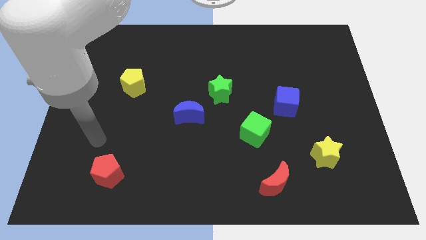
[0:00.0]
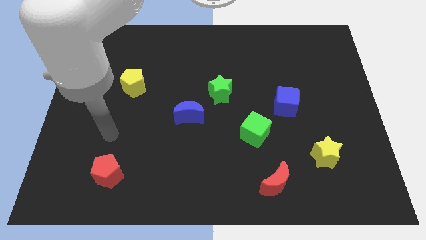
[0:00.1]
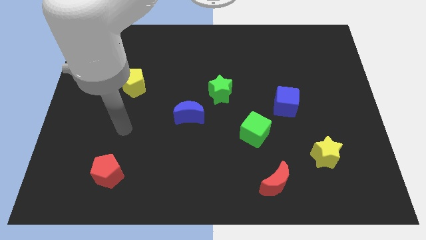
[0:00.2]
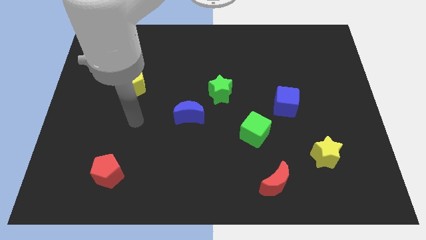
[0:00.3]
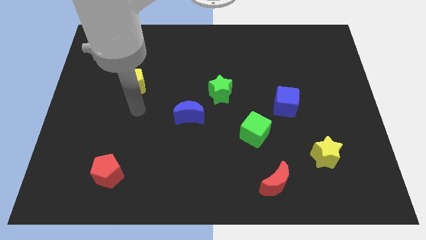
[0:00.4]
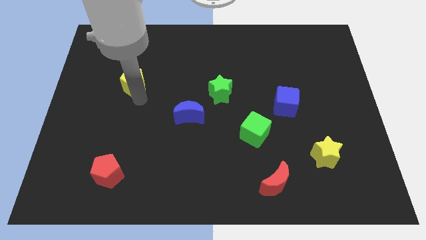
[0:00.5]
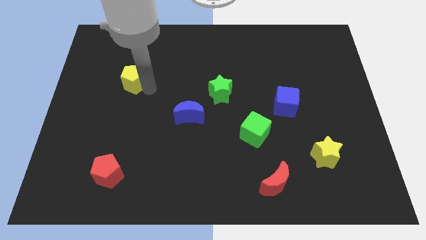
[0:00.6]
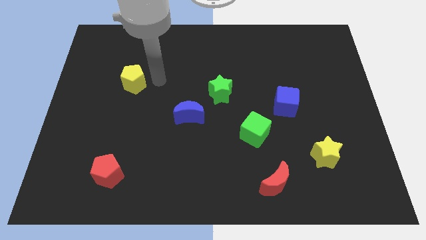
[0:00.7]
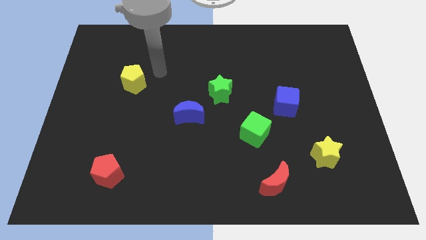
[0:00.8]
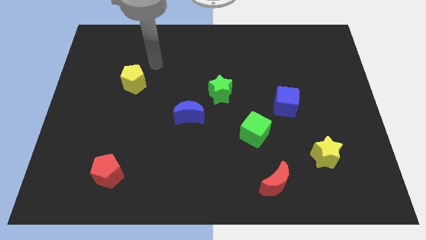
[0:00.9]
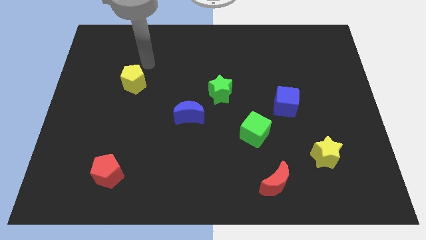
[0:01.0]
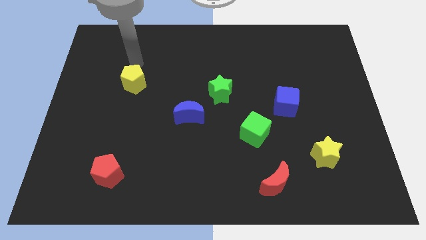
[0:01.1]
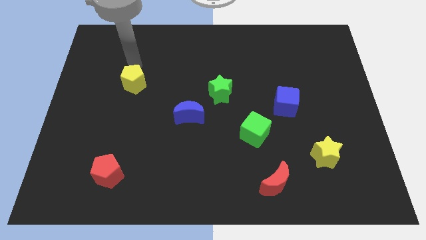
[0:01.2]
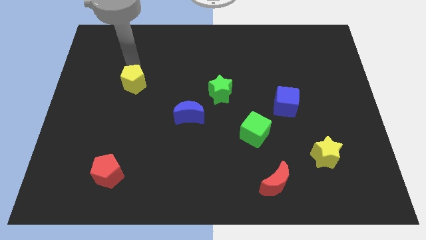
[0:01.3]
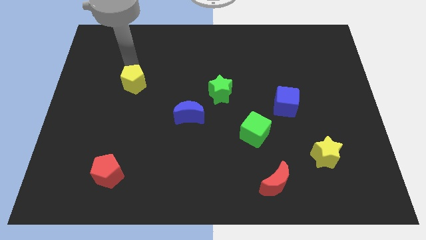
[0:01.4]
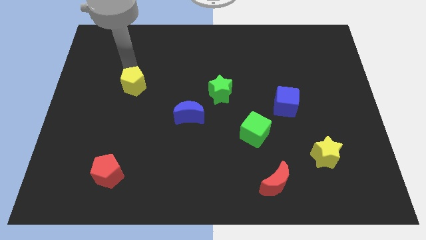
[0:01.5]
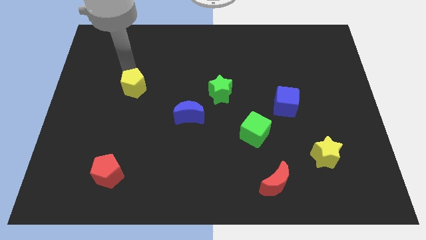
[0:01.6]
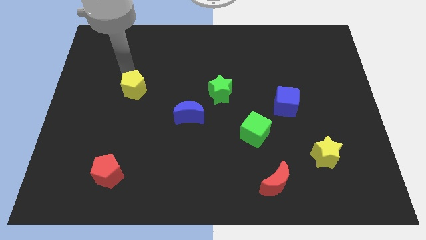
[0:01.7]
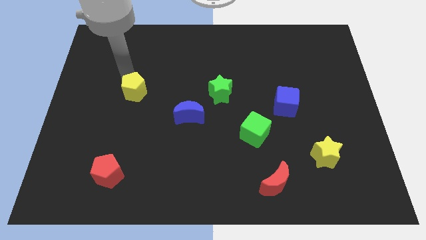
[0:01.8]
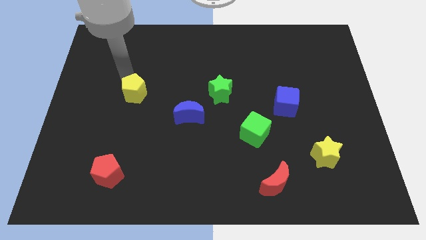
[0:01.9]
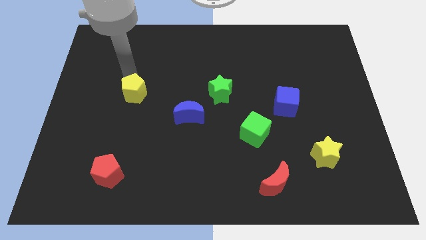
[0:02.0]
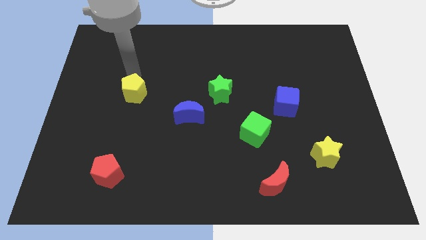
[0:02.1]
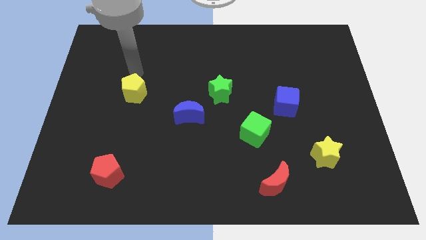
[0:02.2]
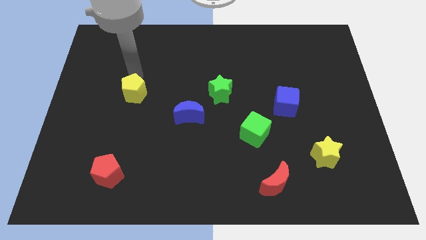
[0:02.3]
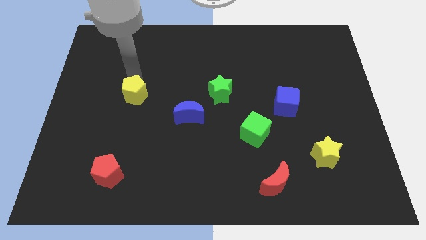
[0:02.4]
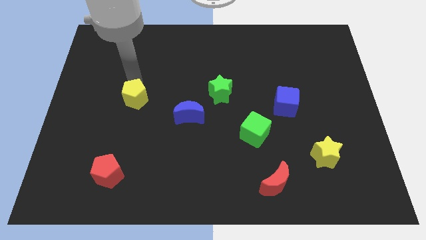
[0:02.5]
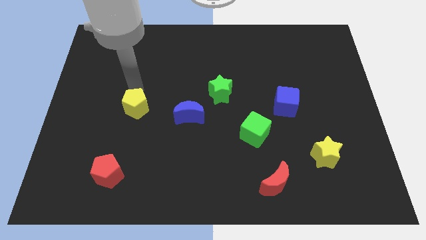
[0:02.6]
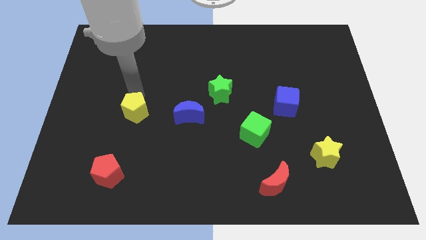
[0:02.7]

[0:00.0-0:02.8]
push the yellow pentagon slightly downwards

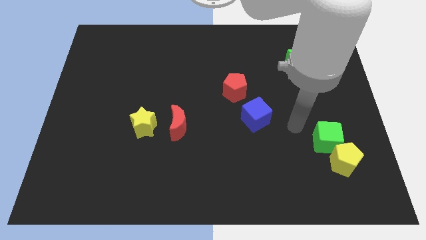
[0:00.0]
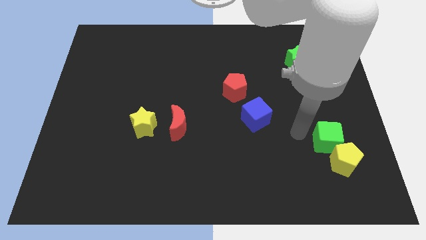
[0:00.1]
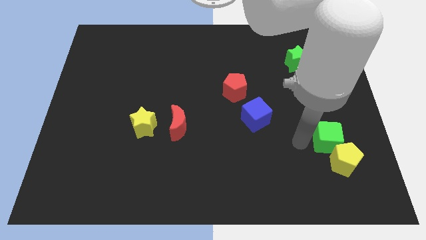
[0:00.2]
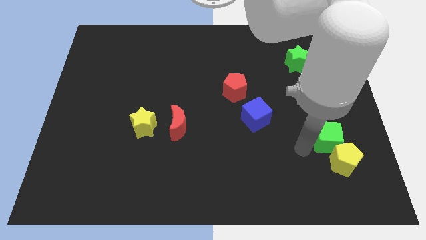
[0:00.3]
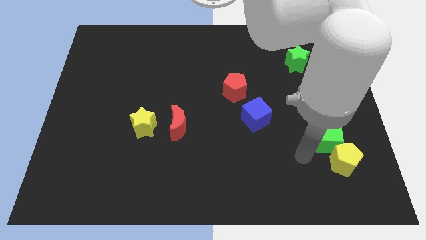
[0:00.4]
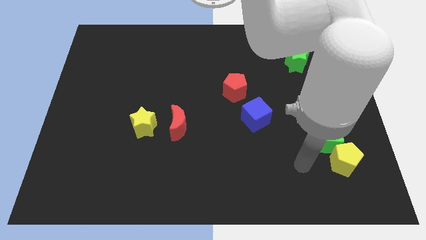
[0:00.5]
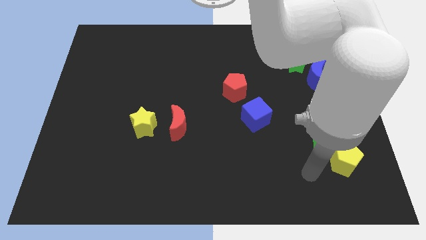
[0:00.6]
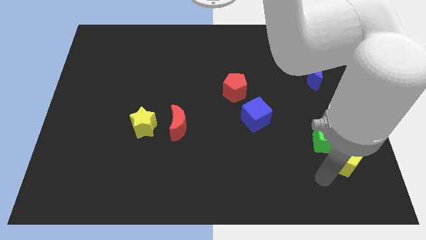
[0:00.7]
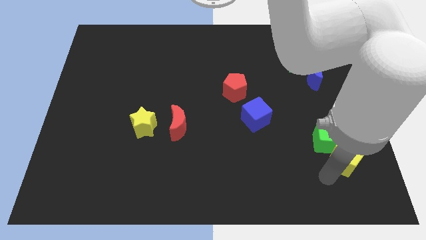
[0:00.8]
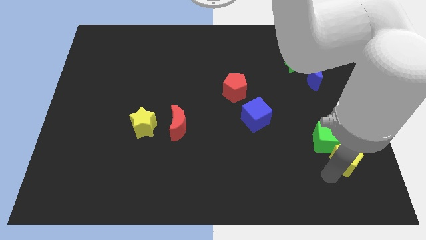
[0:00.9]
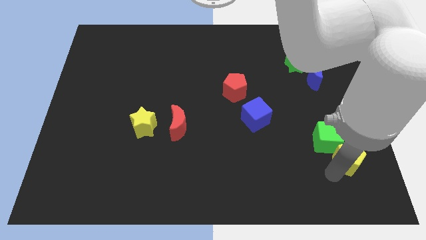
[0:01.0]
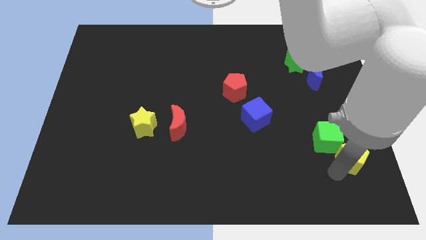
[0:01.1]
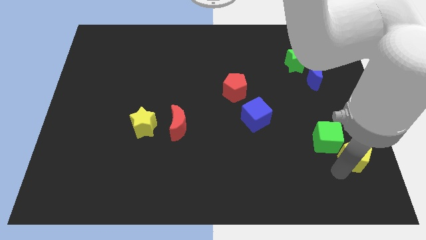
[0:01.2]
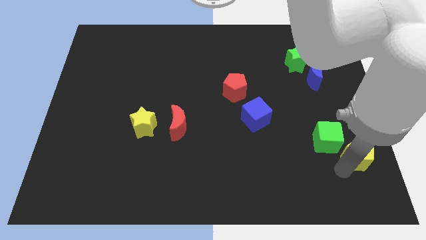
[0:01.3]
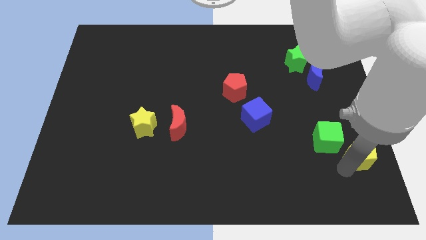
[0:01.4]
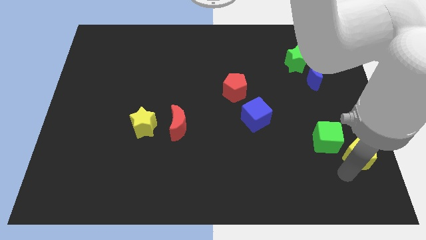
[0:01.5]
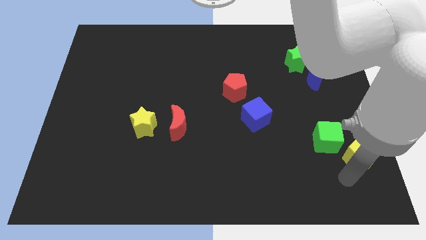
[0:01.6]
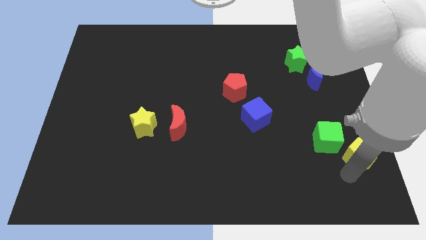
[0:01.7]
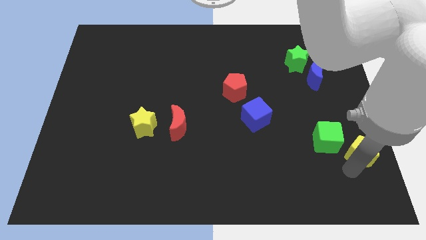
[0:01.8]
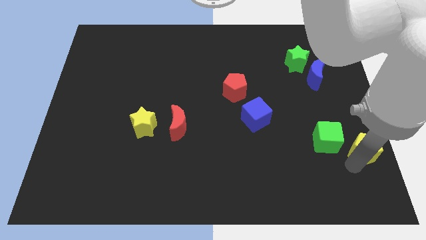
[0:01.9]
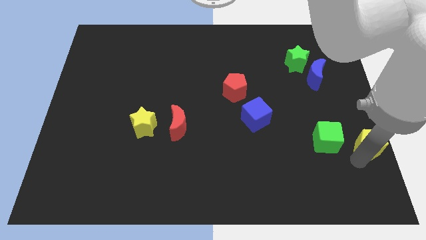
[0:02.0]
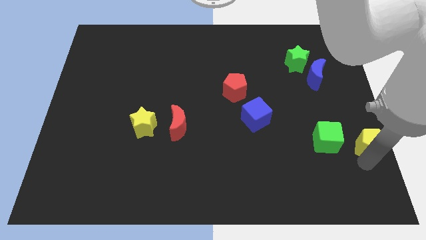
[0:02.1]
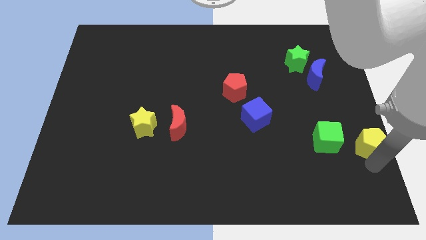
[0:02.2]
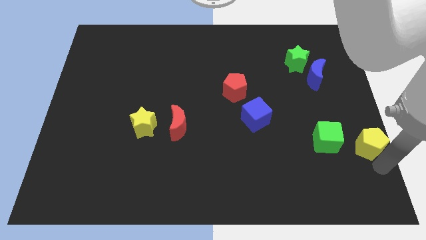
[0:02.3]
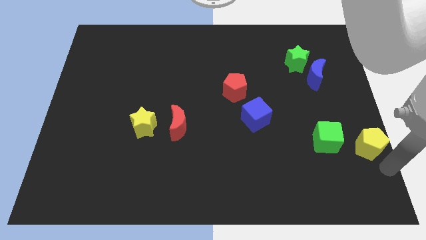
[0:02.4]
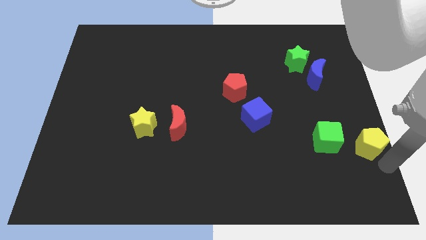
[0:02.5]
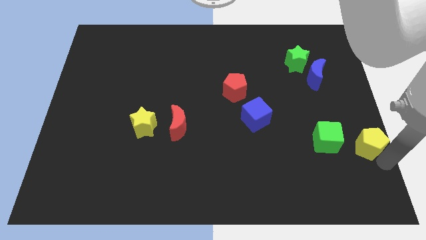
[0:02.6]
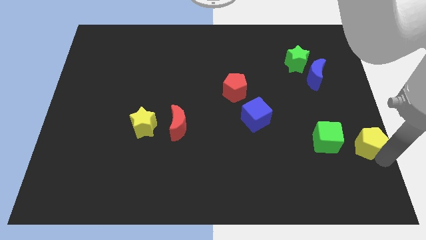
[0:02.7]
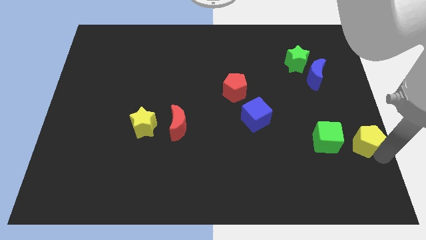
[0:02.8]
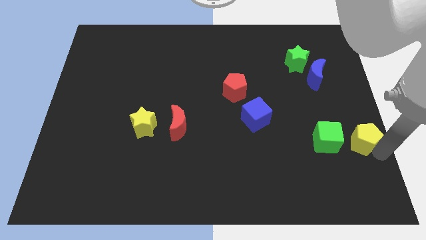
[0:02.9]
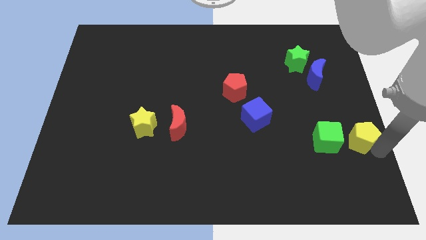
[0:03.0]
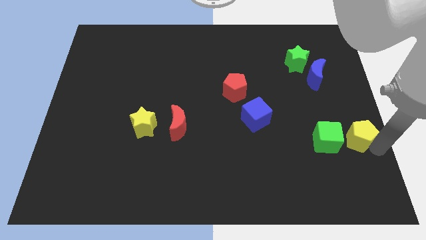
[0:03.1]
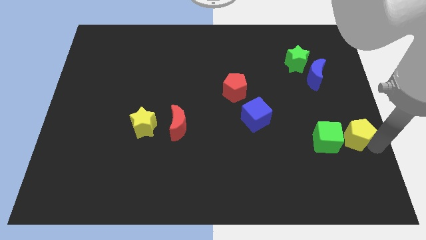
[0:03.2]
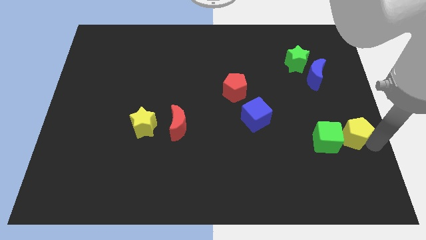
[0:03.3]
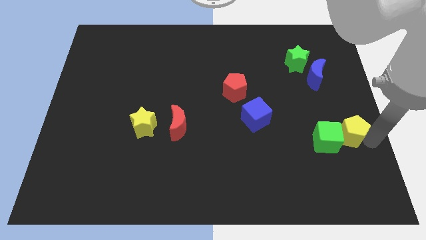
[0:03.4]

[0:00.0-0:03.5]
move the yellow pentagon upwards slightly

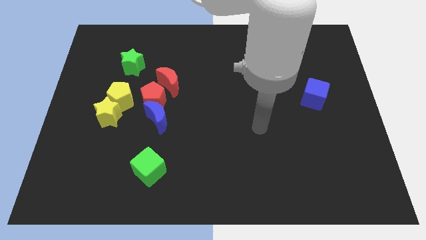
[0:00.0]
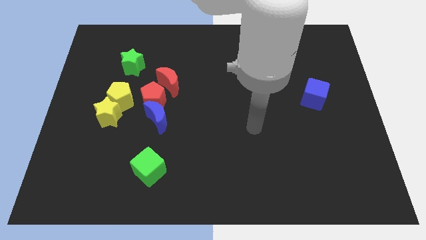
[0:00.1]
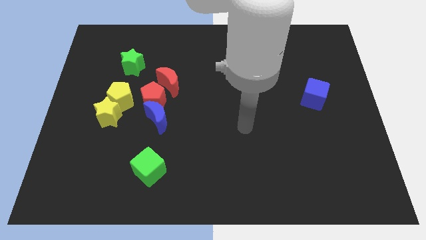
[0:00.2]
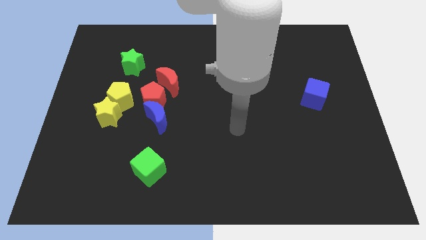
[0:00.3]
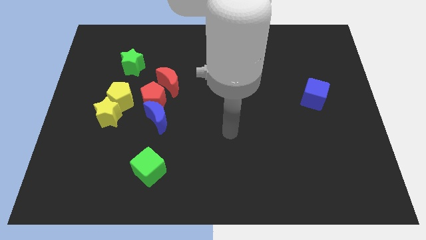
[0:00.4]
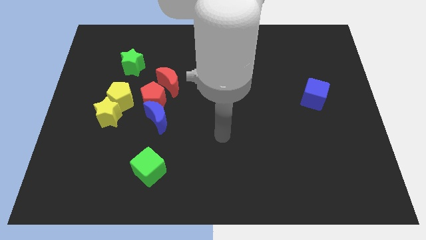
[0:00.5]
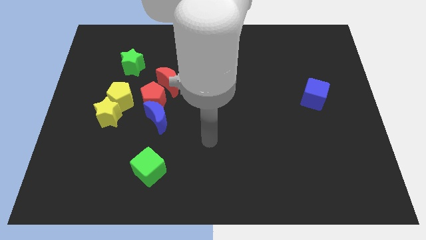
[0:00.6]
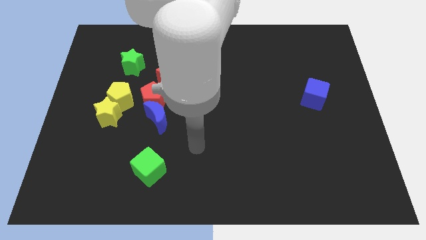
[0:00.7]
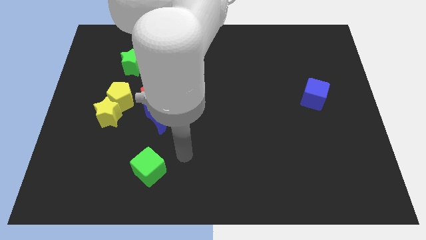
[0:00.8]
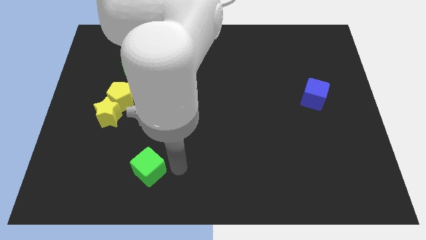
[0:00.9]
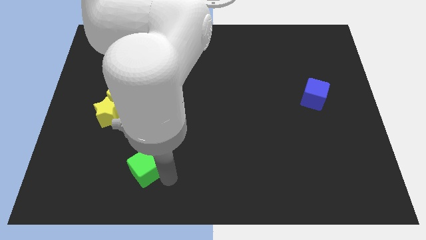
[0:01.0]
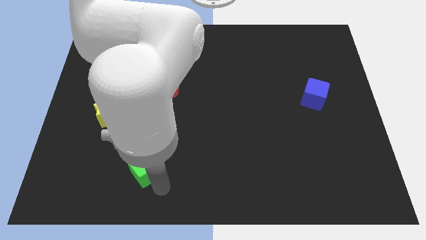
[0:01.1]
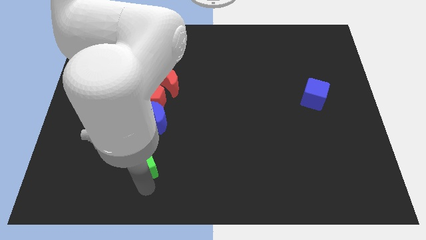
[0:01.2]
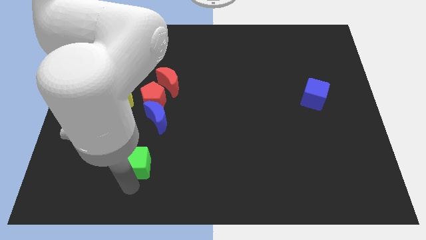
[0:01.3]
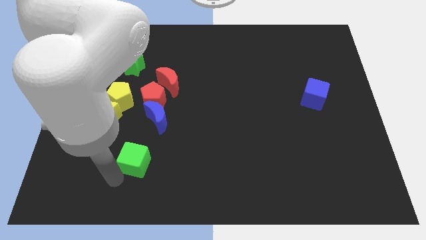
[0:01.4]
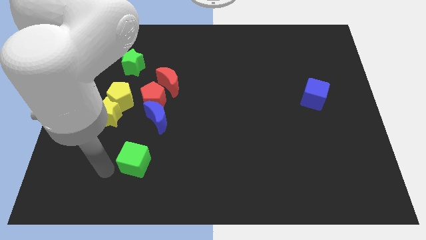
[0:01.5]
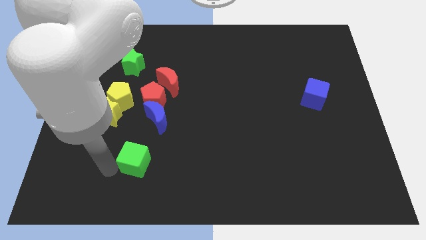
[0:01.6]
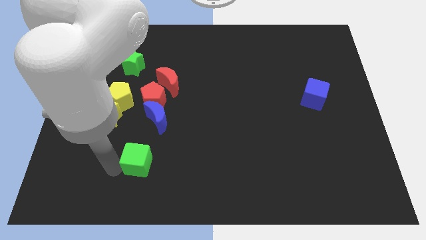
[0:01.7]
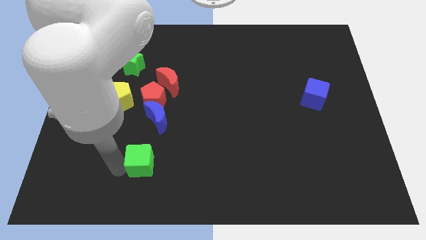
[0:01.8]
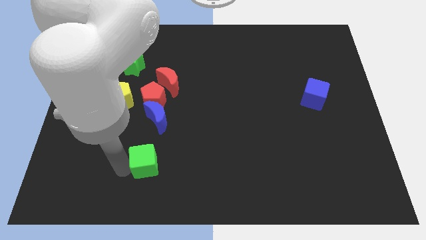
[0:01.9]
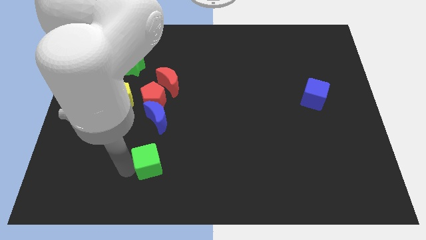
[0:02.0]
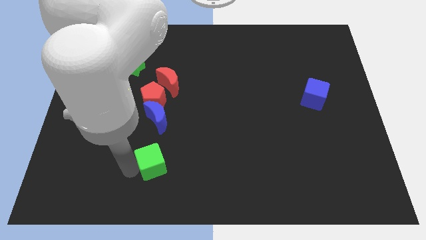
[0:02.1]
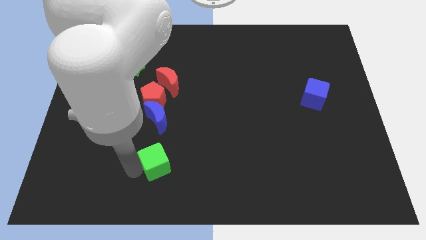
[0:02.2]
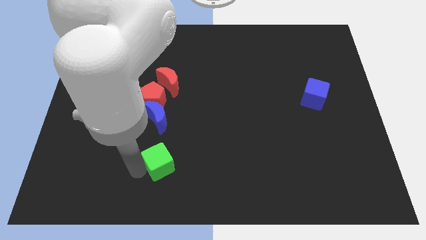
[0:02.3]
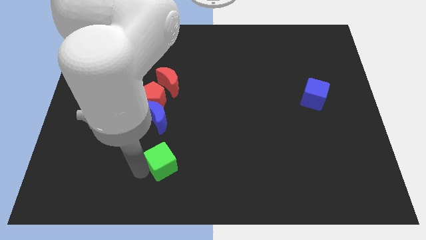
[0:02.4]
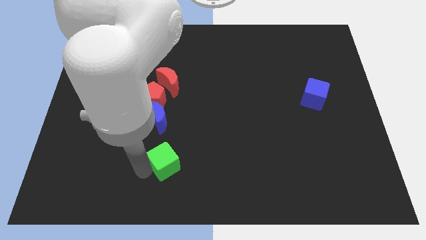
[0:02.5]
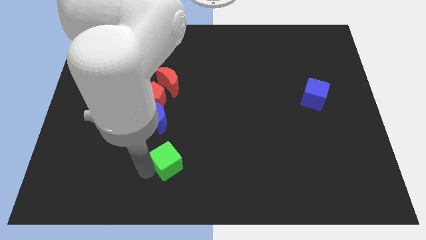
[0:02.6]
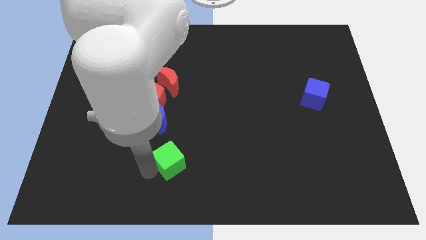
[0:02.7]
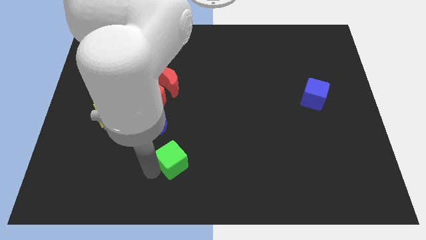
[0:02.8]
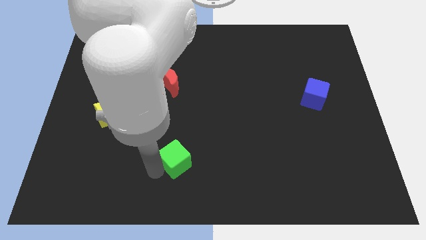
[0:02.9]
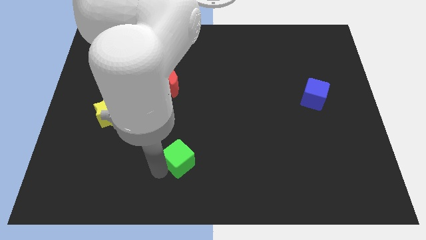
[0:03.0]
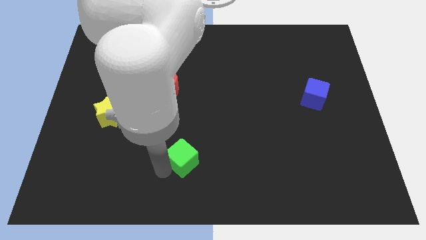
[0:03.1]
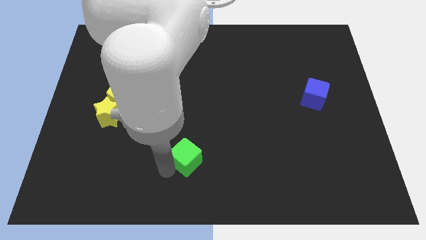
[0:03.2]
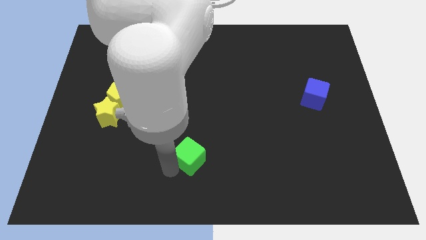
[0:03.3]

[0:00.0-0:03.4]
slide the green cube upwards and to the right a bit
